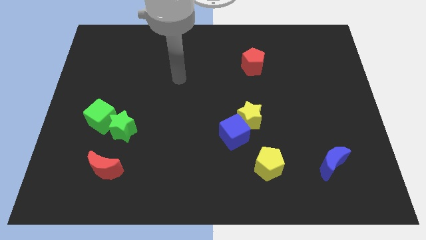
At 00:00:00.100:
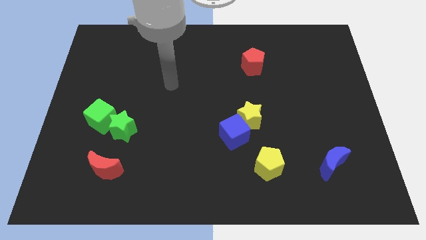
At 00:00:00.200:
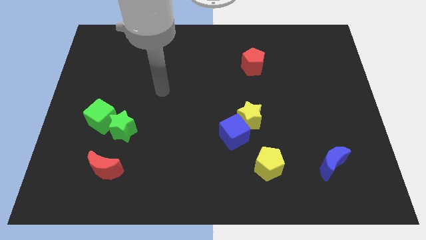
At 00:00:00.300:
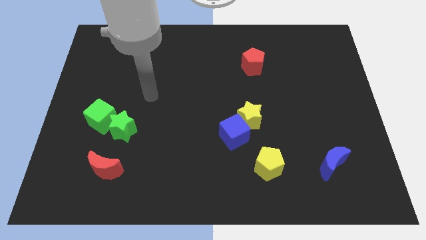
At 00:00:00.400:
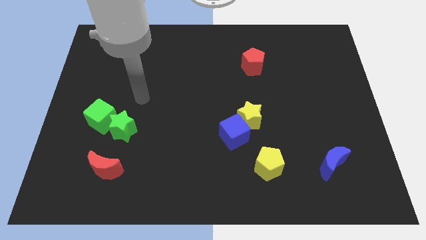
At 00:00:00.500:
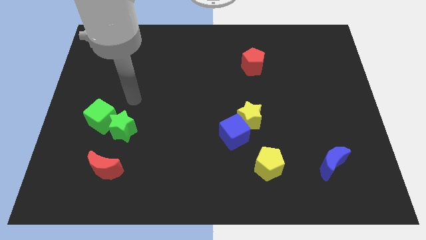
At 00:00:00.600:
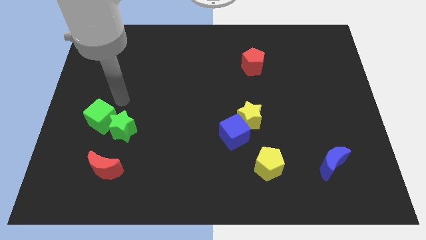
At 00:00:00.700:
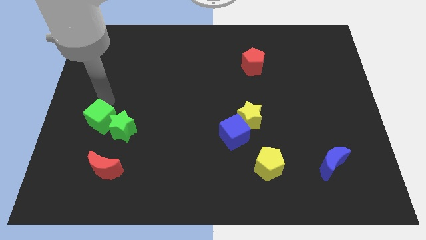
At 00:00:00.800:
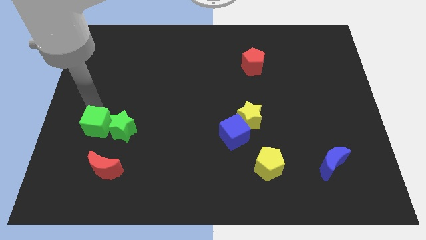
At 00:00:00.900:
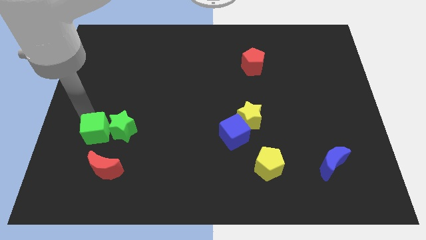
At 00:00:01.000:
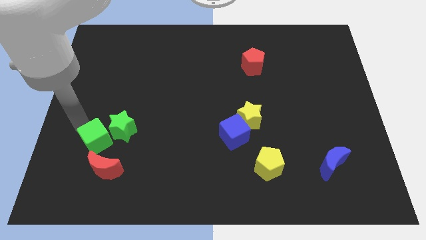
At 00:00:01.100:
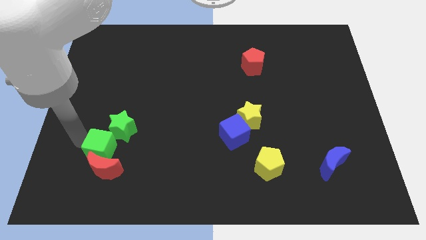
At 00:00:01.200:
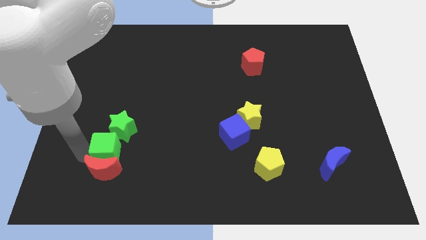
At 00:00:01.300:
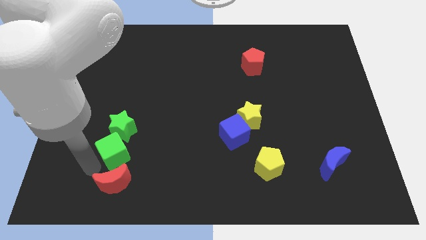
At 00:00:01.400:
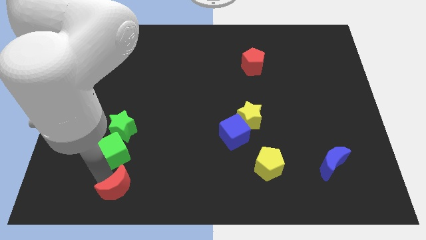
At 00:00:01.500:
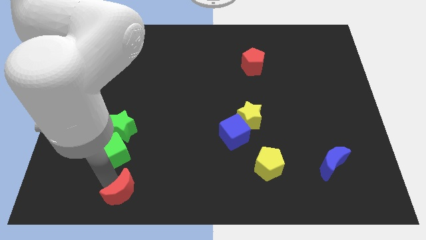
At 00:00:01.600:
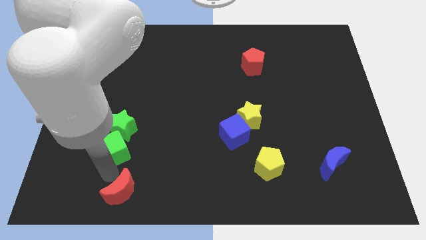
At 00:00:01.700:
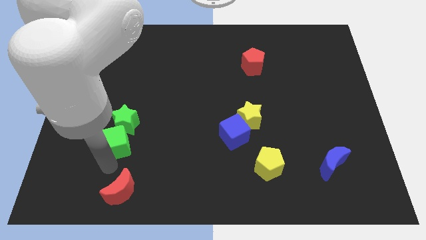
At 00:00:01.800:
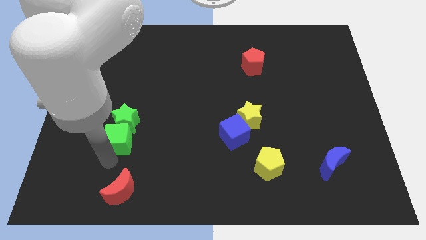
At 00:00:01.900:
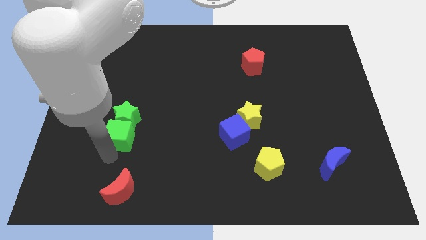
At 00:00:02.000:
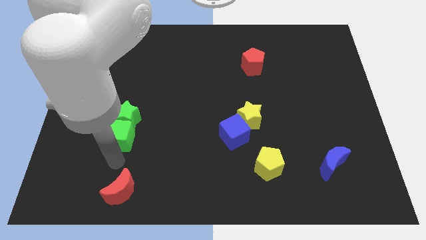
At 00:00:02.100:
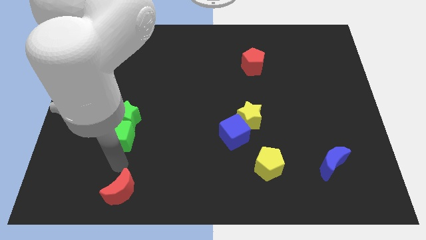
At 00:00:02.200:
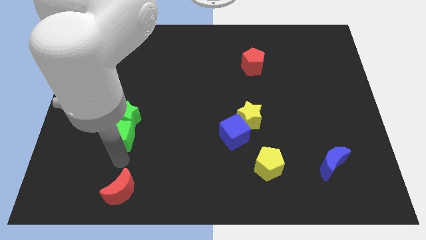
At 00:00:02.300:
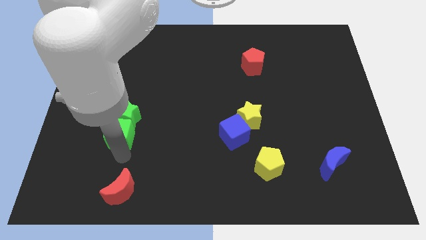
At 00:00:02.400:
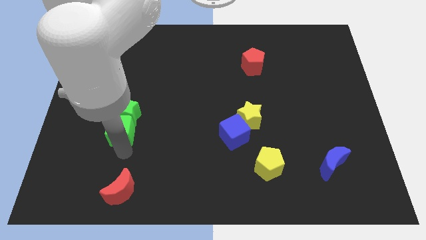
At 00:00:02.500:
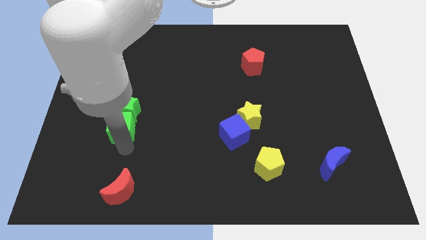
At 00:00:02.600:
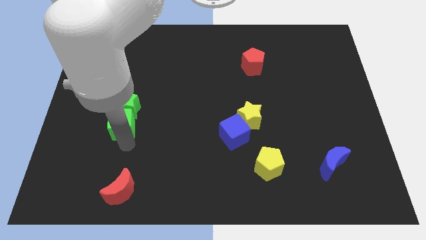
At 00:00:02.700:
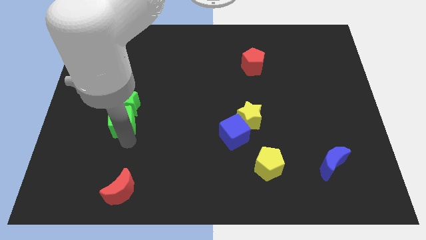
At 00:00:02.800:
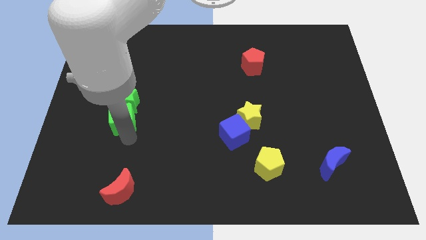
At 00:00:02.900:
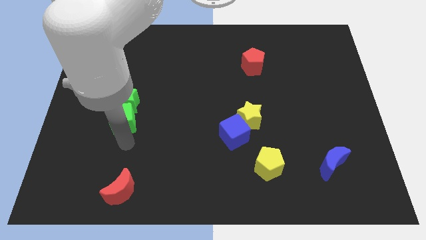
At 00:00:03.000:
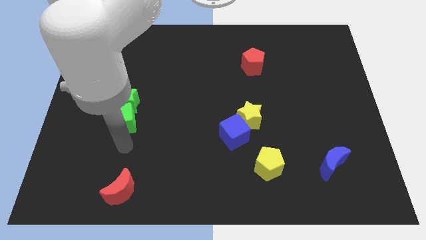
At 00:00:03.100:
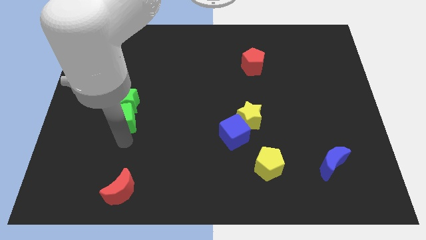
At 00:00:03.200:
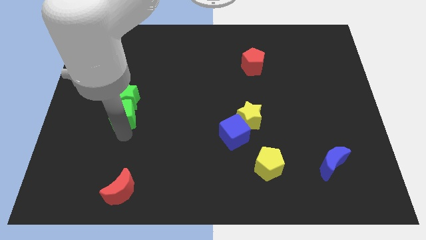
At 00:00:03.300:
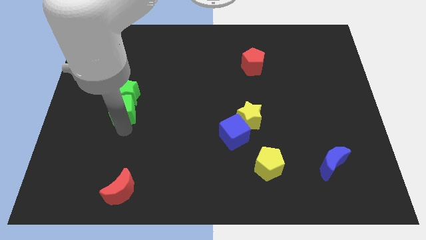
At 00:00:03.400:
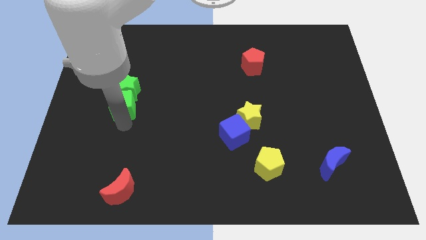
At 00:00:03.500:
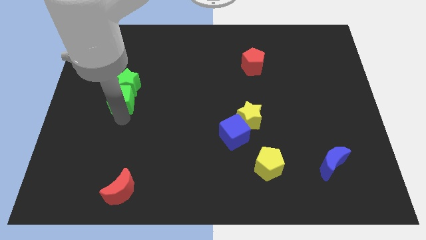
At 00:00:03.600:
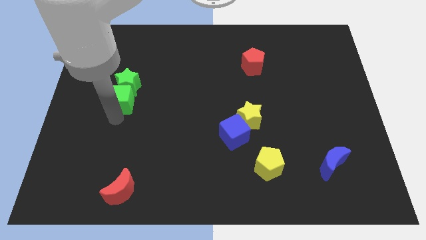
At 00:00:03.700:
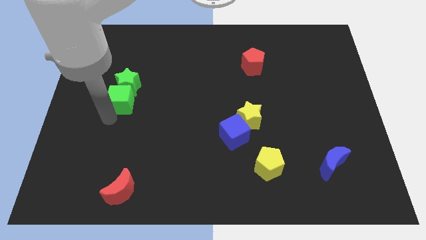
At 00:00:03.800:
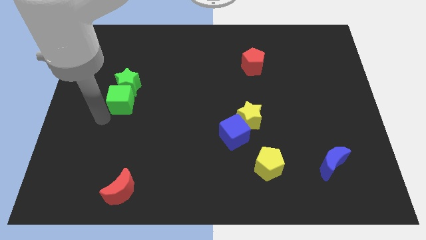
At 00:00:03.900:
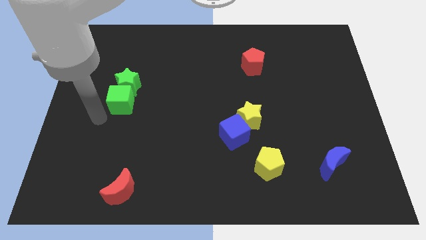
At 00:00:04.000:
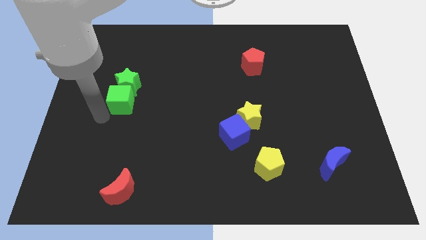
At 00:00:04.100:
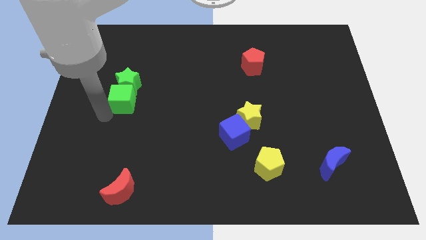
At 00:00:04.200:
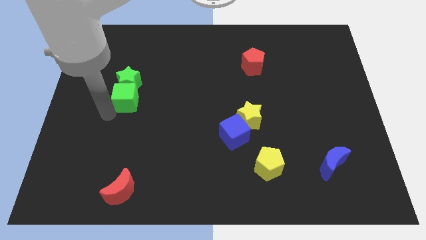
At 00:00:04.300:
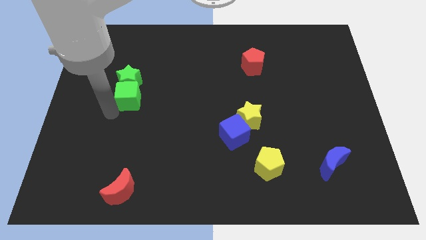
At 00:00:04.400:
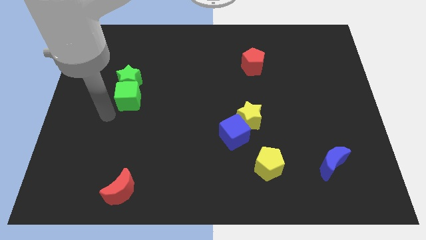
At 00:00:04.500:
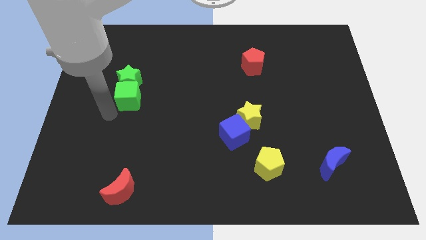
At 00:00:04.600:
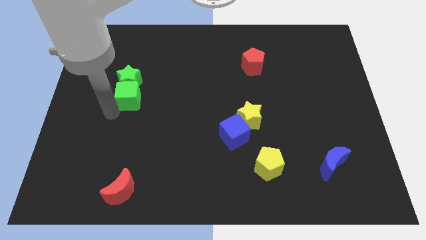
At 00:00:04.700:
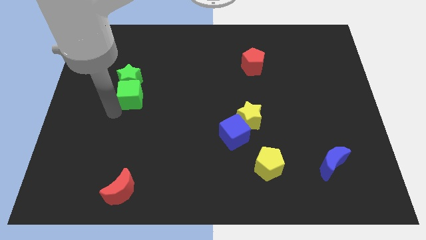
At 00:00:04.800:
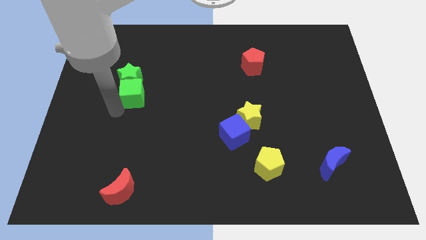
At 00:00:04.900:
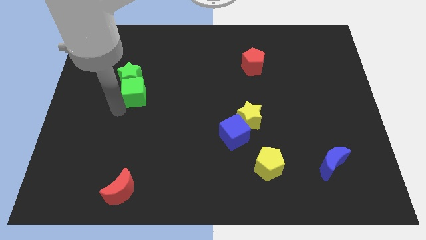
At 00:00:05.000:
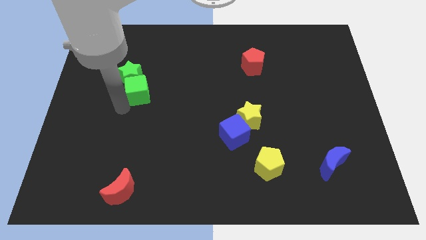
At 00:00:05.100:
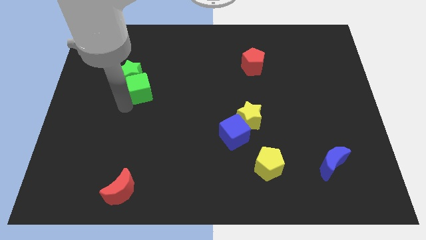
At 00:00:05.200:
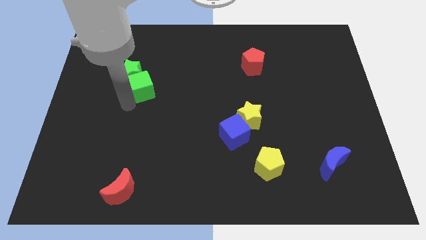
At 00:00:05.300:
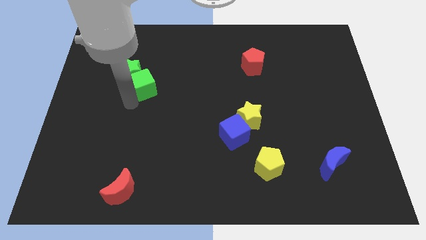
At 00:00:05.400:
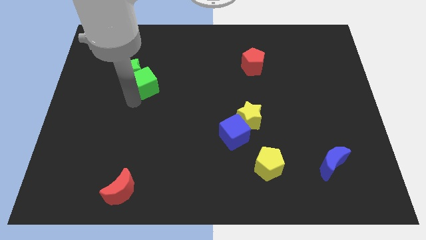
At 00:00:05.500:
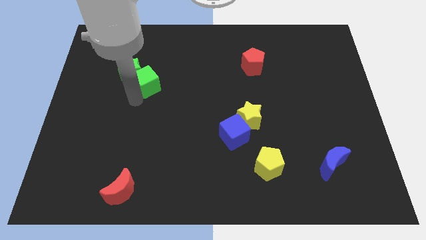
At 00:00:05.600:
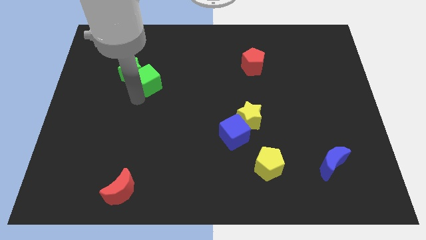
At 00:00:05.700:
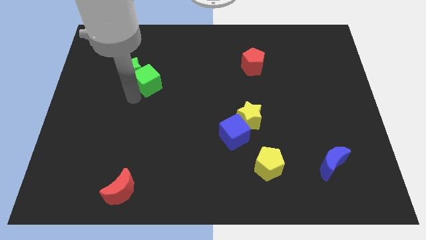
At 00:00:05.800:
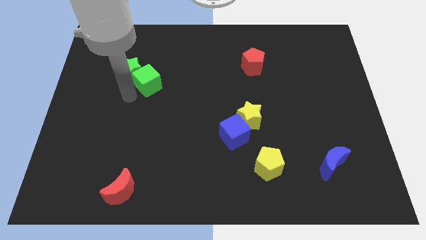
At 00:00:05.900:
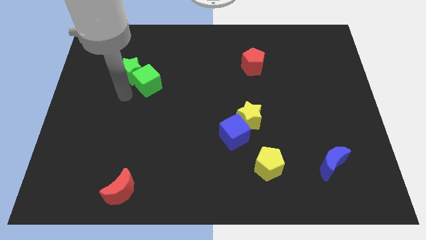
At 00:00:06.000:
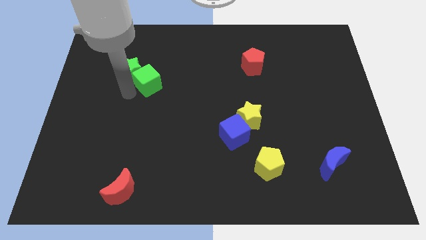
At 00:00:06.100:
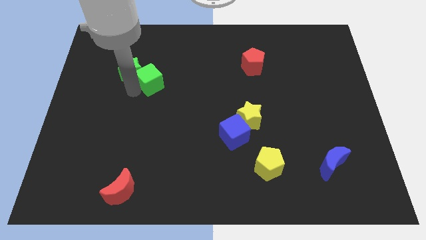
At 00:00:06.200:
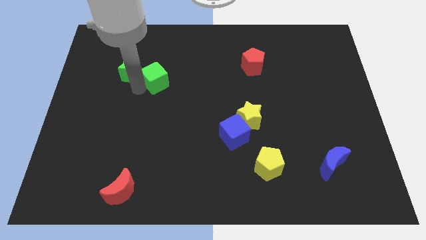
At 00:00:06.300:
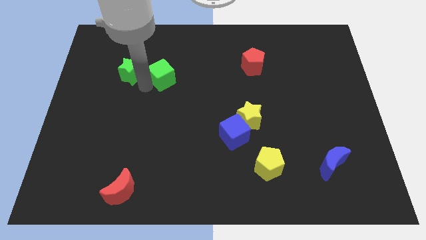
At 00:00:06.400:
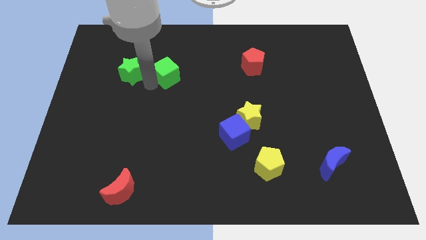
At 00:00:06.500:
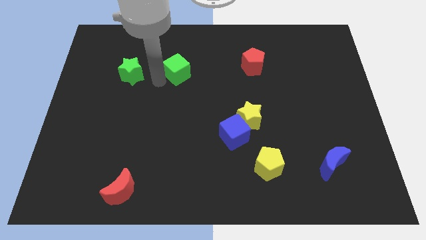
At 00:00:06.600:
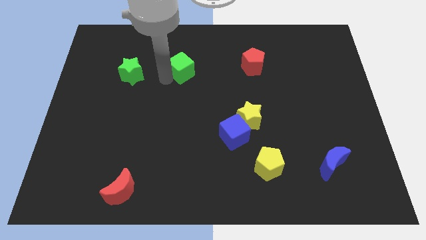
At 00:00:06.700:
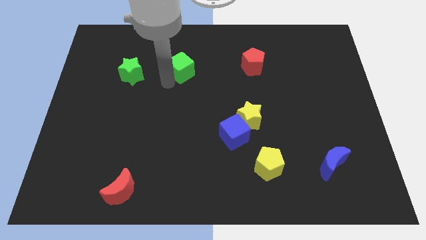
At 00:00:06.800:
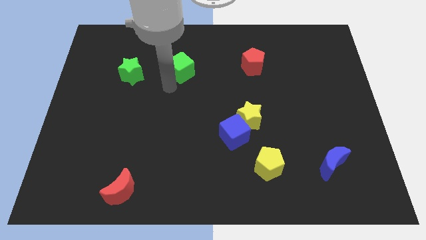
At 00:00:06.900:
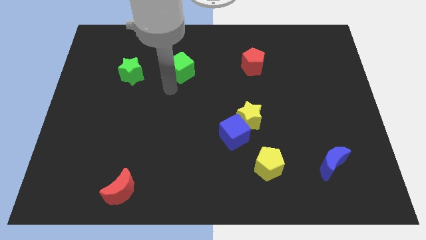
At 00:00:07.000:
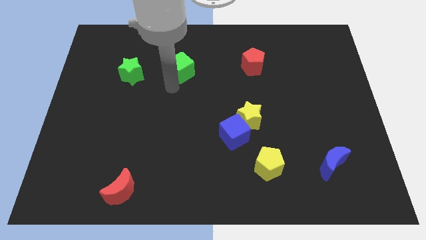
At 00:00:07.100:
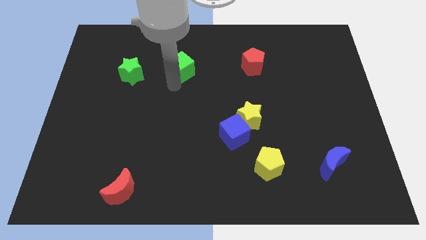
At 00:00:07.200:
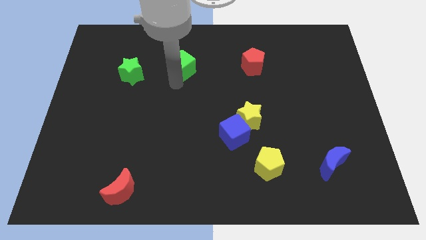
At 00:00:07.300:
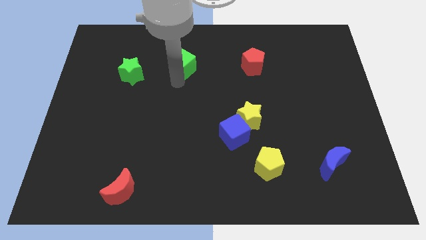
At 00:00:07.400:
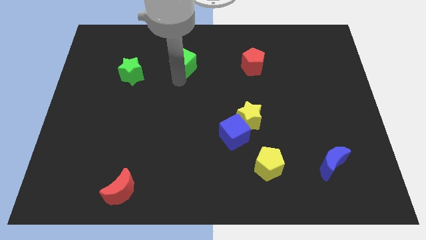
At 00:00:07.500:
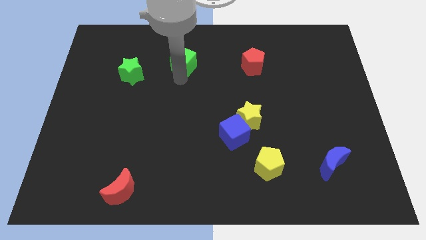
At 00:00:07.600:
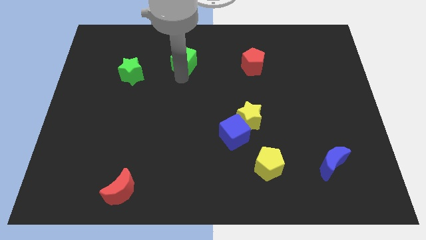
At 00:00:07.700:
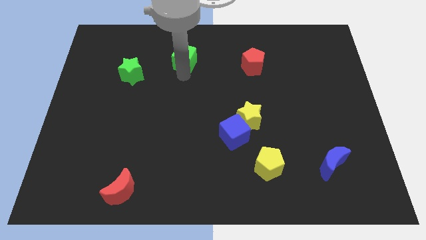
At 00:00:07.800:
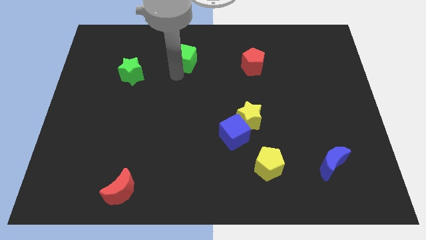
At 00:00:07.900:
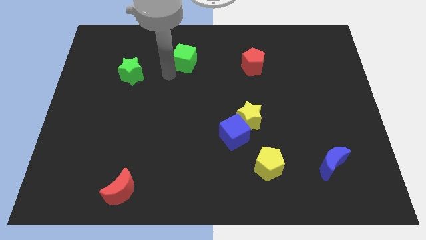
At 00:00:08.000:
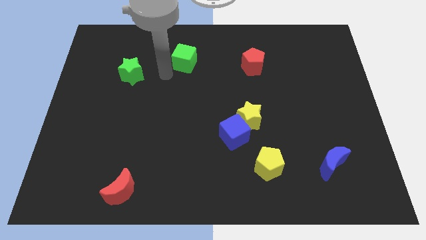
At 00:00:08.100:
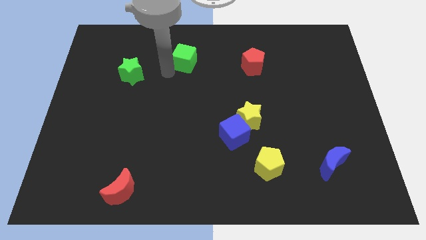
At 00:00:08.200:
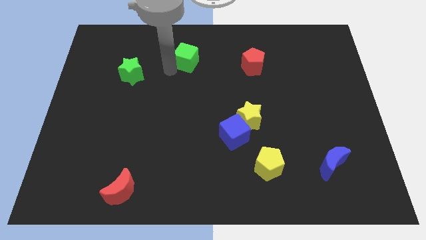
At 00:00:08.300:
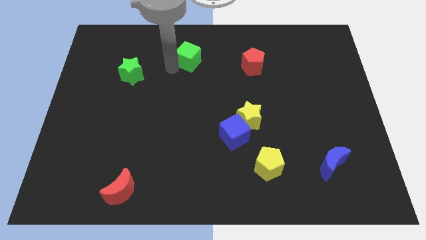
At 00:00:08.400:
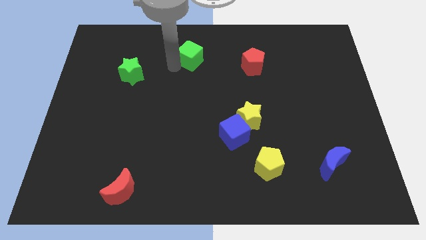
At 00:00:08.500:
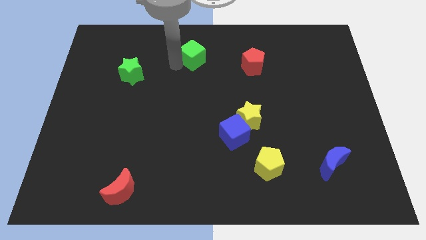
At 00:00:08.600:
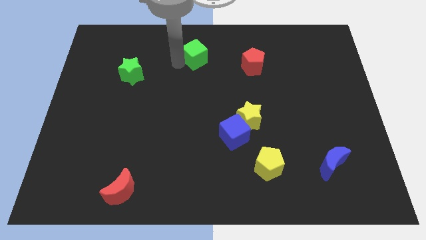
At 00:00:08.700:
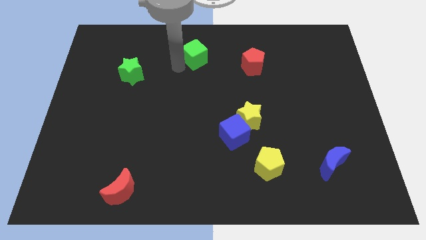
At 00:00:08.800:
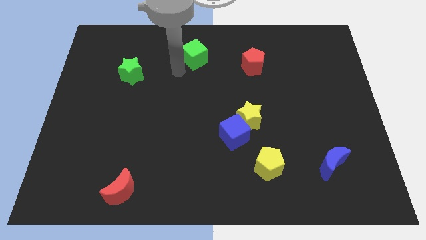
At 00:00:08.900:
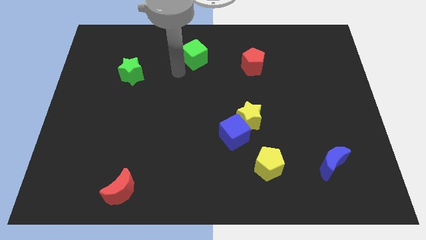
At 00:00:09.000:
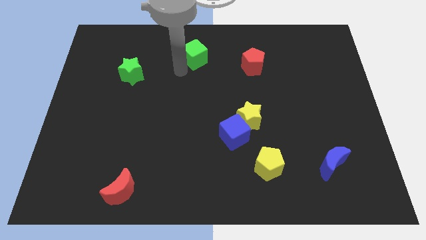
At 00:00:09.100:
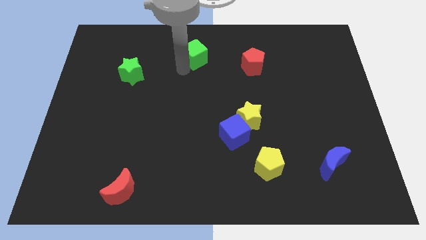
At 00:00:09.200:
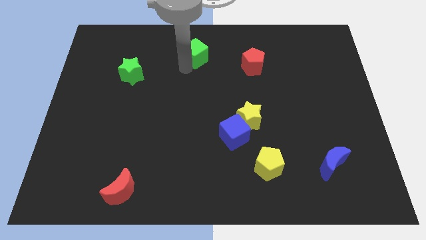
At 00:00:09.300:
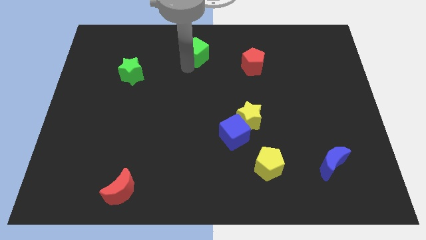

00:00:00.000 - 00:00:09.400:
move the green cube to the top side
